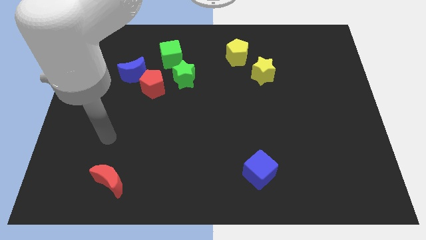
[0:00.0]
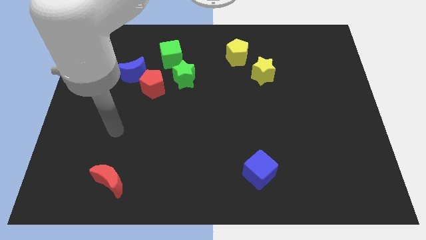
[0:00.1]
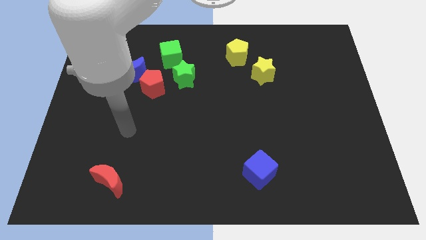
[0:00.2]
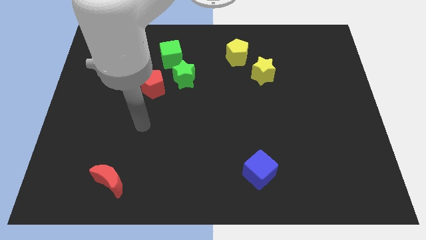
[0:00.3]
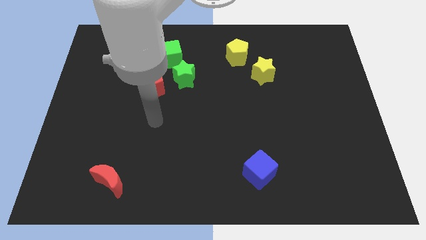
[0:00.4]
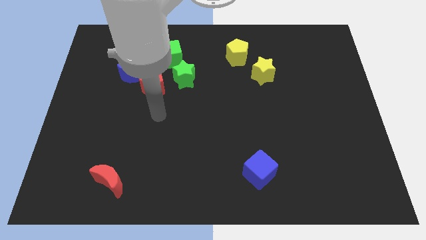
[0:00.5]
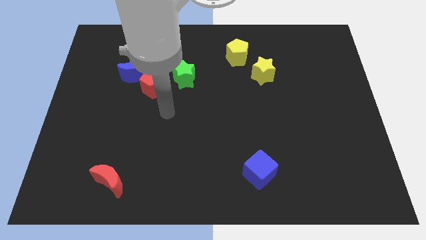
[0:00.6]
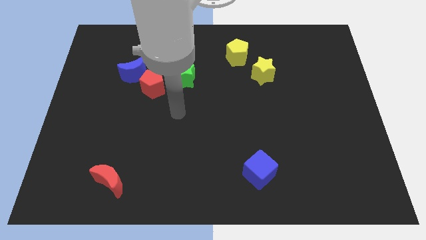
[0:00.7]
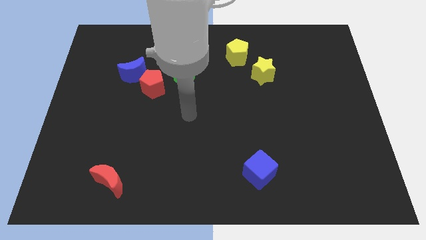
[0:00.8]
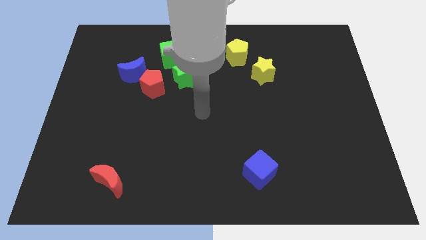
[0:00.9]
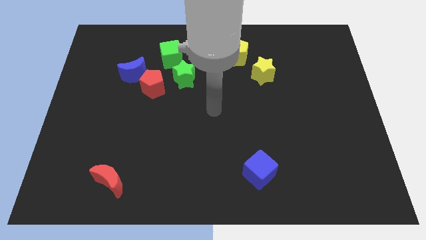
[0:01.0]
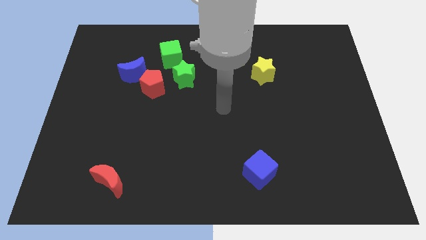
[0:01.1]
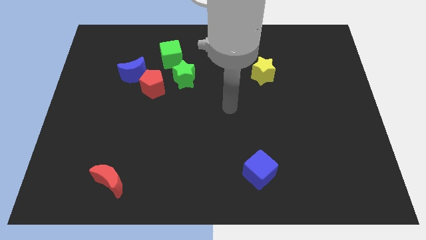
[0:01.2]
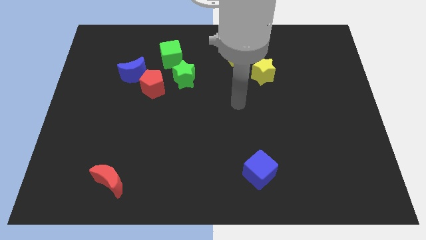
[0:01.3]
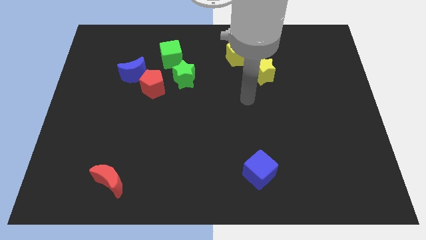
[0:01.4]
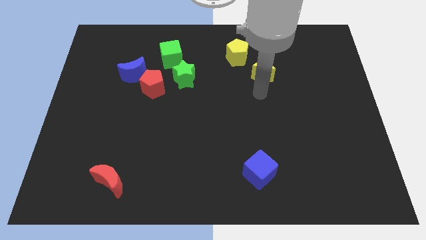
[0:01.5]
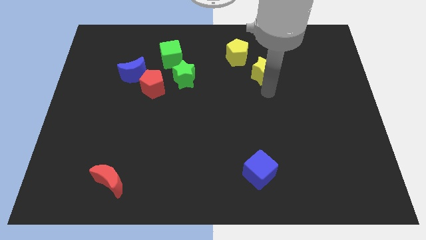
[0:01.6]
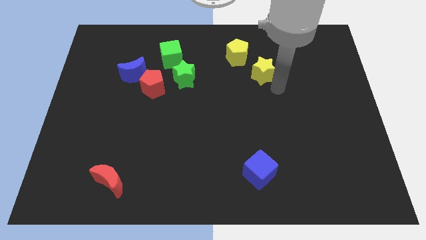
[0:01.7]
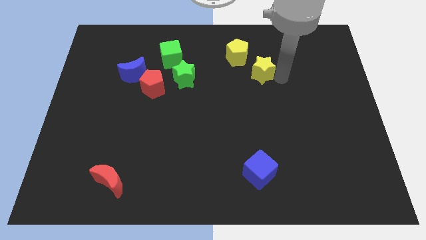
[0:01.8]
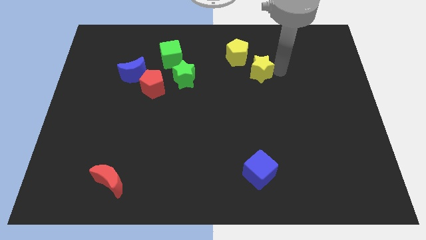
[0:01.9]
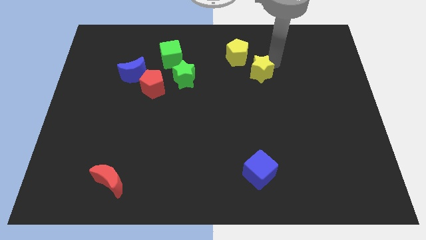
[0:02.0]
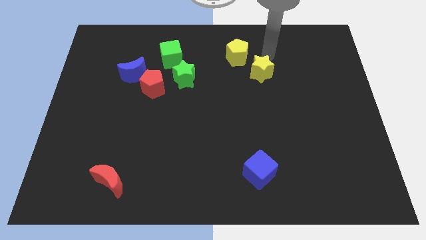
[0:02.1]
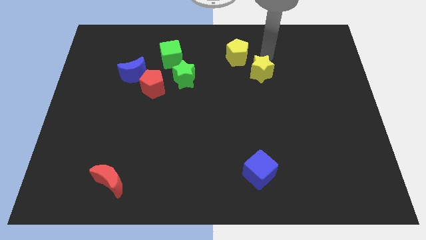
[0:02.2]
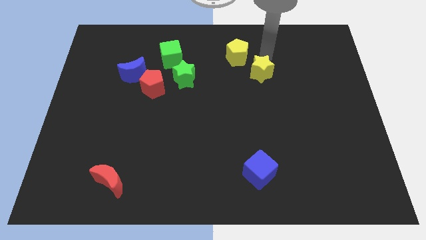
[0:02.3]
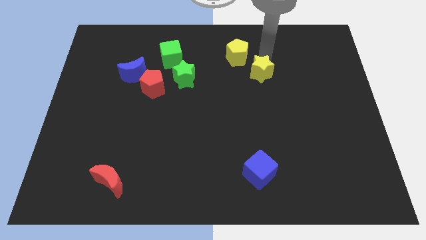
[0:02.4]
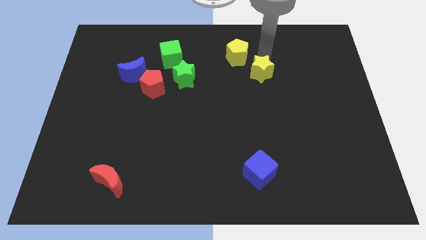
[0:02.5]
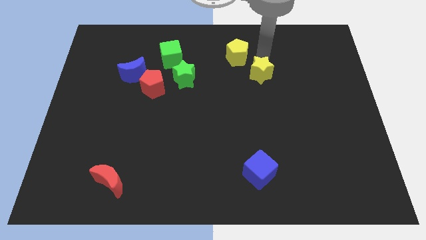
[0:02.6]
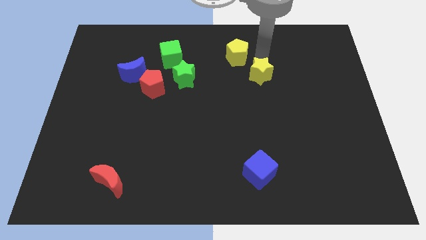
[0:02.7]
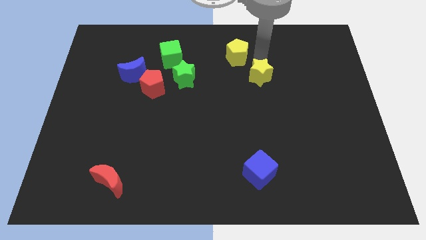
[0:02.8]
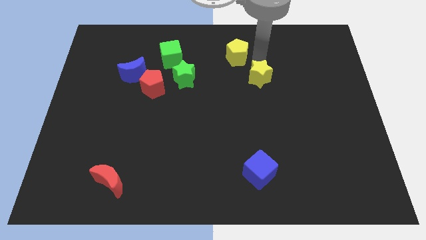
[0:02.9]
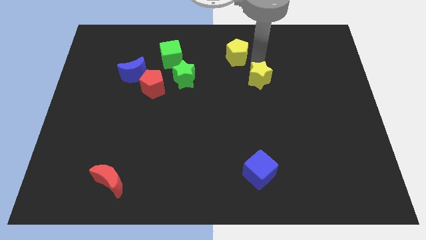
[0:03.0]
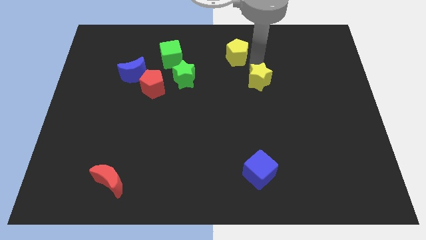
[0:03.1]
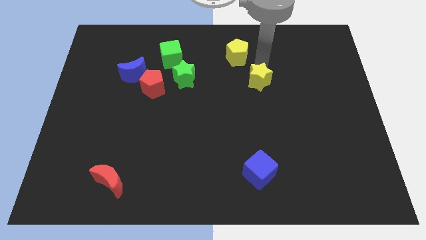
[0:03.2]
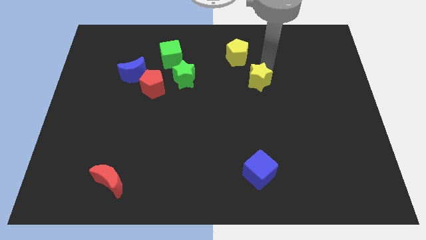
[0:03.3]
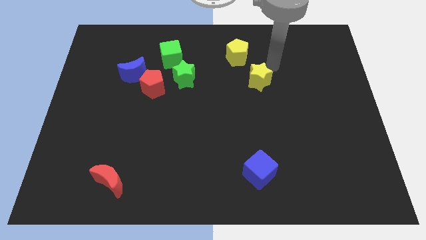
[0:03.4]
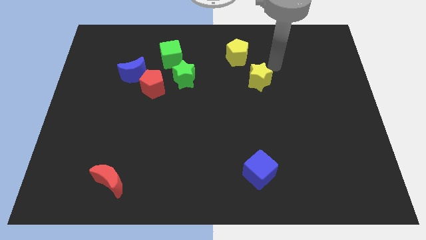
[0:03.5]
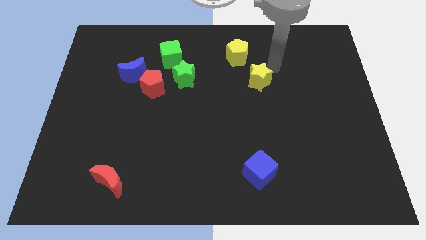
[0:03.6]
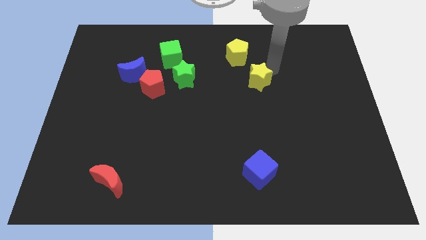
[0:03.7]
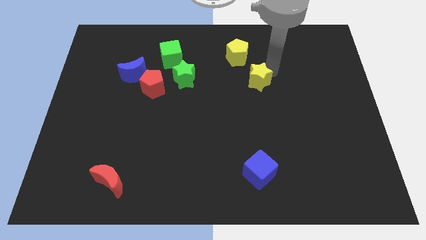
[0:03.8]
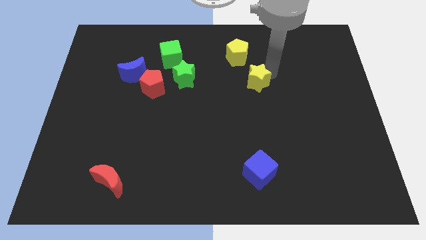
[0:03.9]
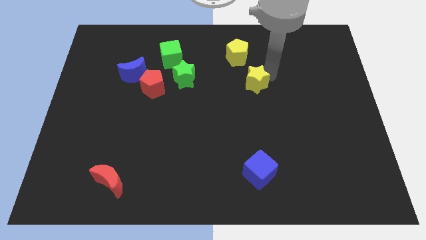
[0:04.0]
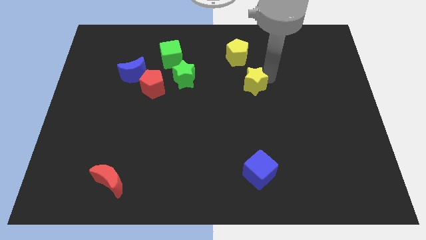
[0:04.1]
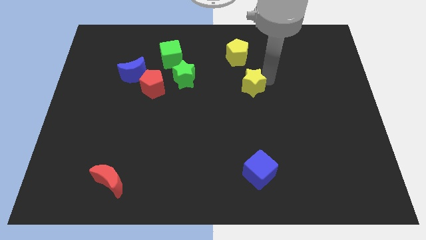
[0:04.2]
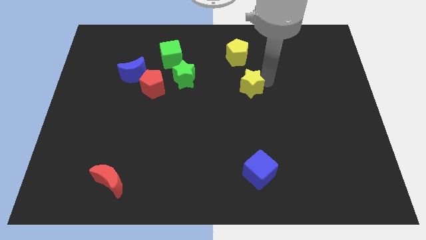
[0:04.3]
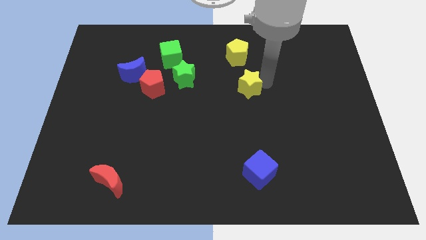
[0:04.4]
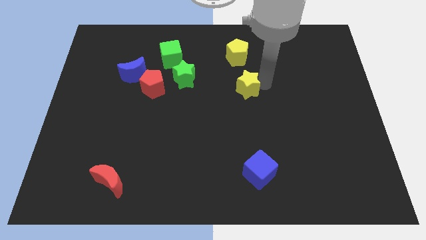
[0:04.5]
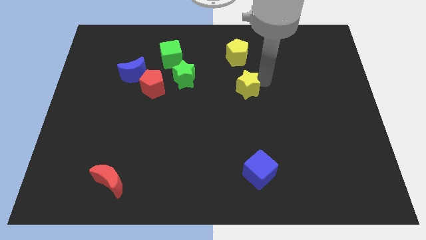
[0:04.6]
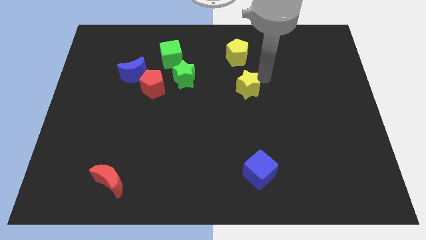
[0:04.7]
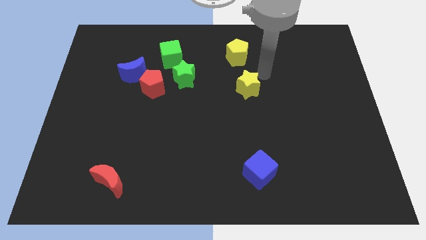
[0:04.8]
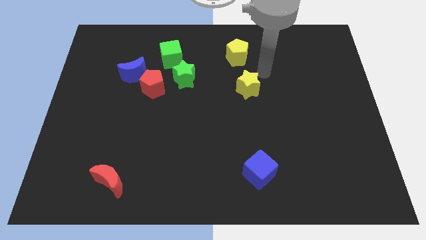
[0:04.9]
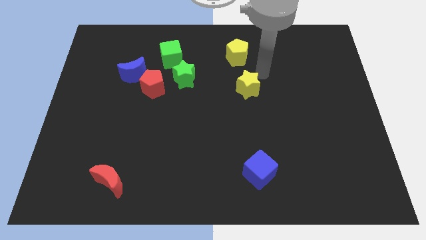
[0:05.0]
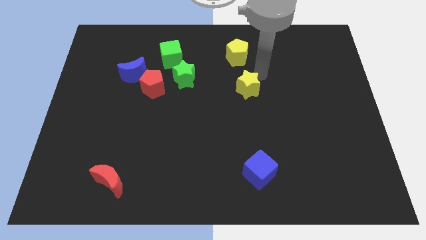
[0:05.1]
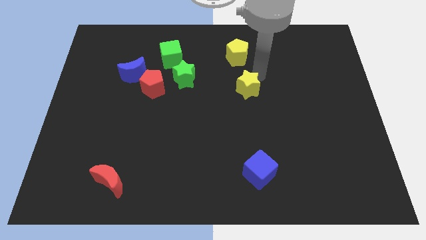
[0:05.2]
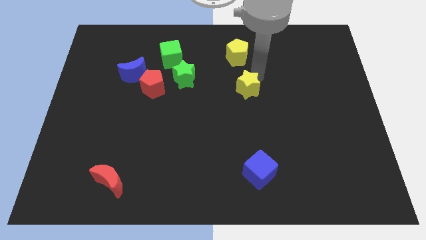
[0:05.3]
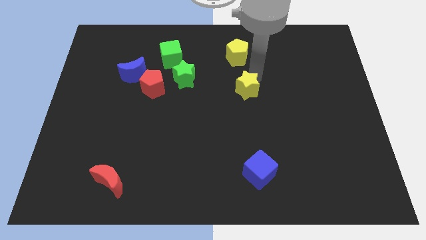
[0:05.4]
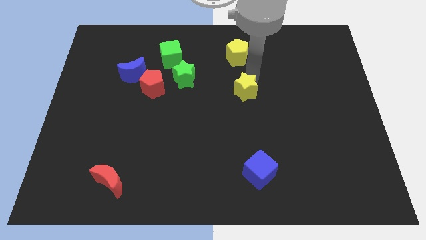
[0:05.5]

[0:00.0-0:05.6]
move the yellow star somewhat down and to the left diagonally

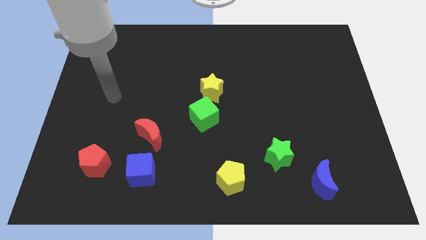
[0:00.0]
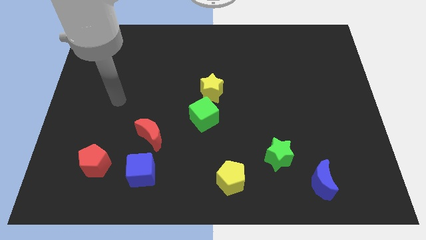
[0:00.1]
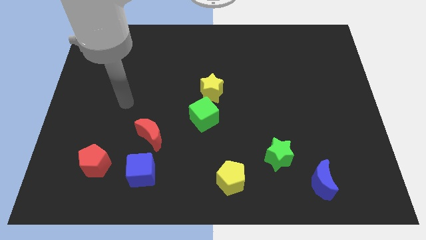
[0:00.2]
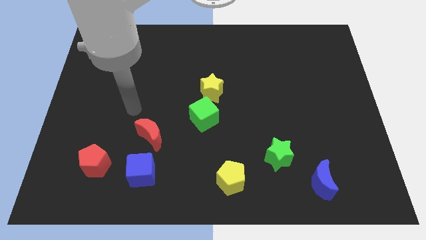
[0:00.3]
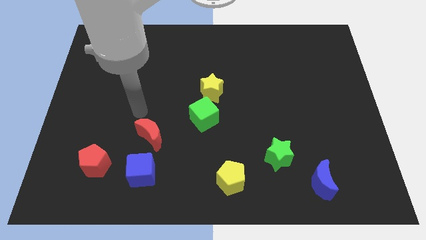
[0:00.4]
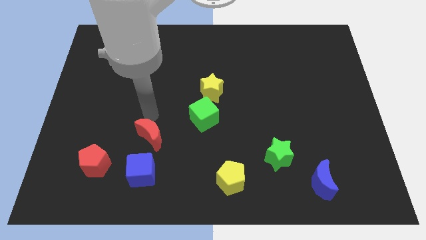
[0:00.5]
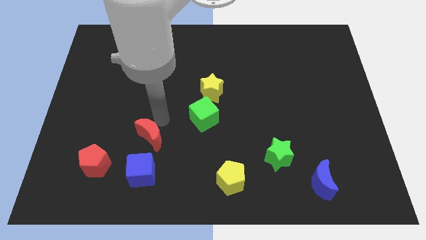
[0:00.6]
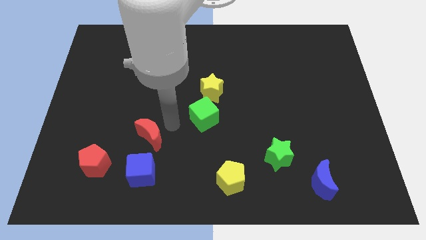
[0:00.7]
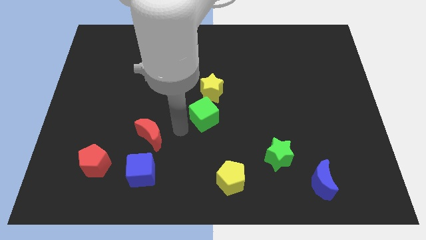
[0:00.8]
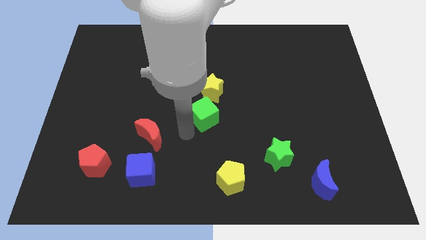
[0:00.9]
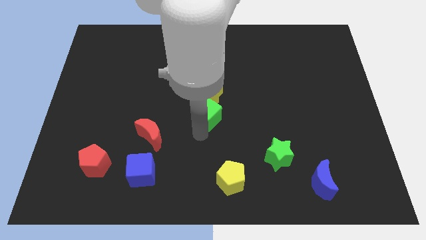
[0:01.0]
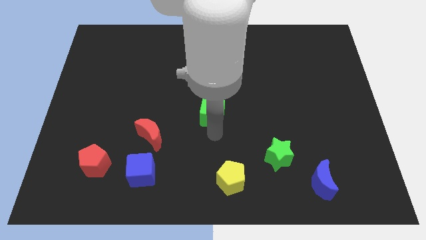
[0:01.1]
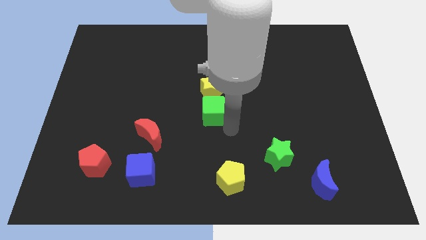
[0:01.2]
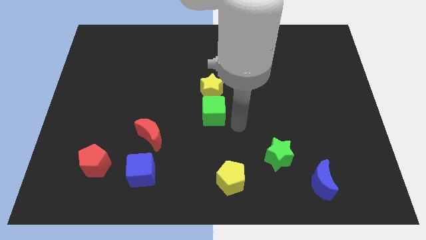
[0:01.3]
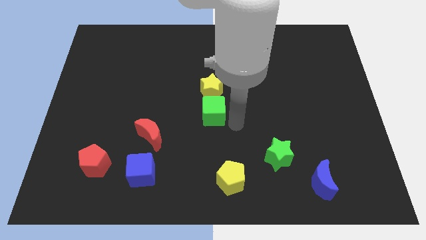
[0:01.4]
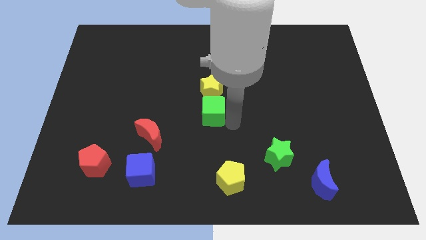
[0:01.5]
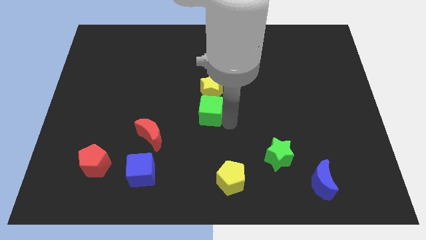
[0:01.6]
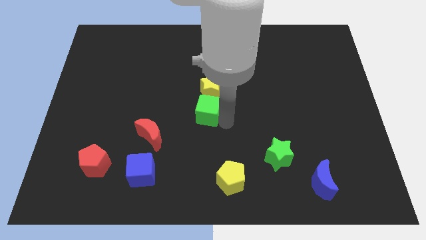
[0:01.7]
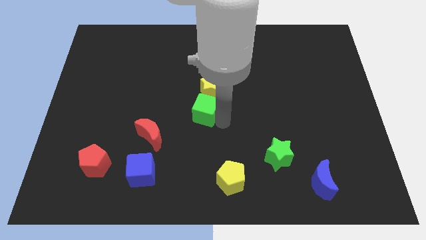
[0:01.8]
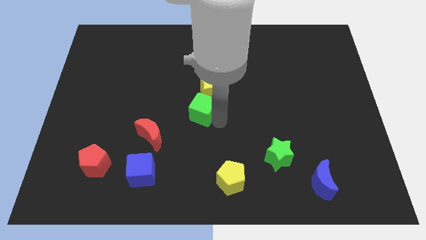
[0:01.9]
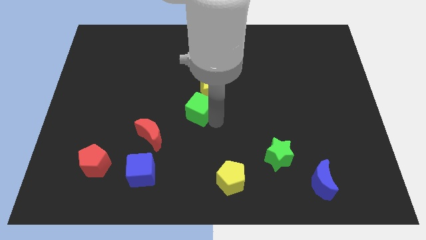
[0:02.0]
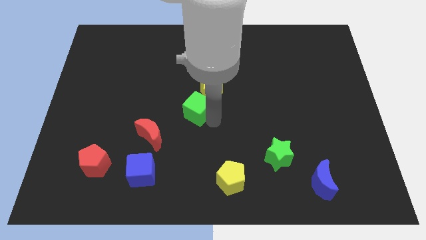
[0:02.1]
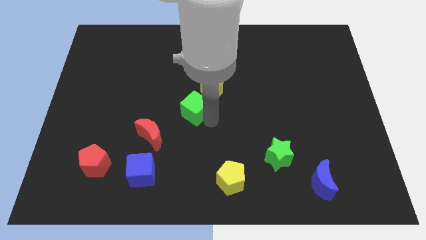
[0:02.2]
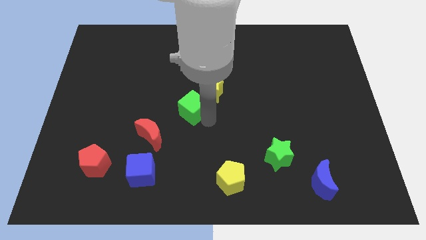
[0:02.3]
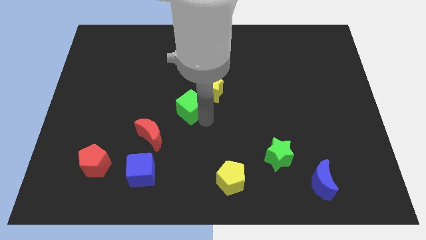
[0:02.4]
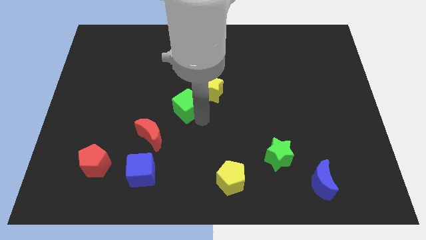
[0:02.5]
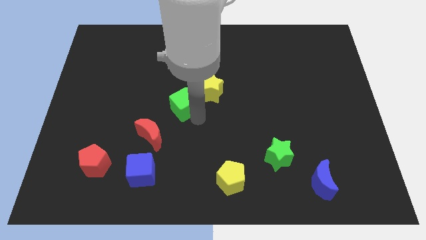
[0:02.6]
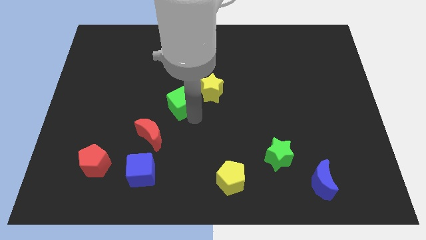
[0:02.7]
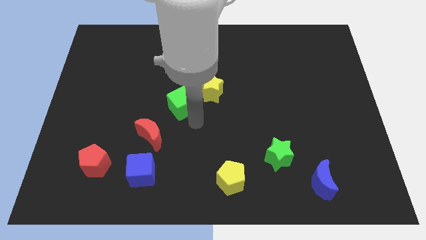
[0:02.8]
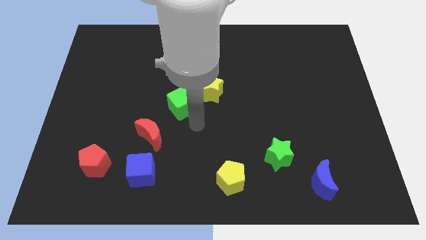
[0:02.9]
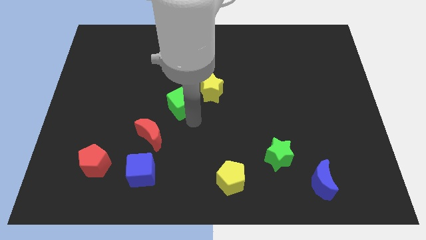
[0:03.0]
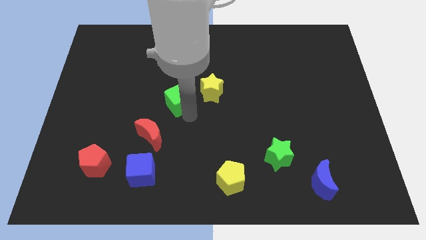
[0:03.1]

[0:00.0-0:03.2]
slide the green cube a bit up and to the left diagonally

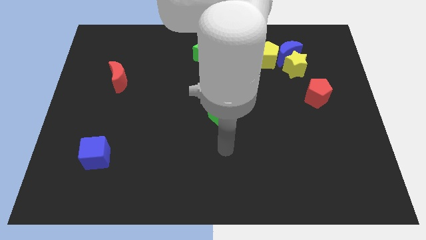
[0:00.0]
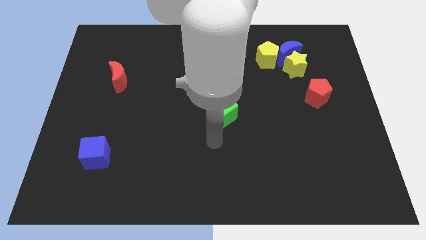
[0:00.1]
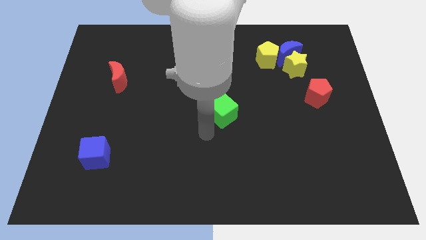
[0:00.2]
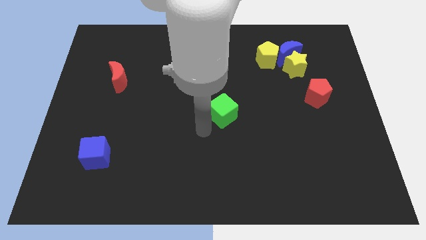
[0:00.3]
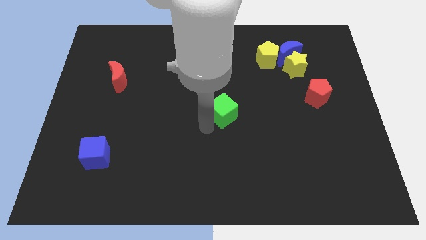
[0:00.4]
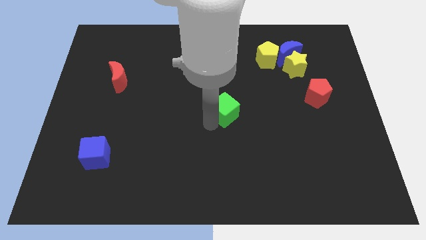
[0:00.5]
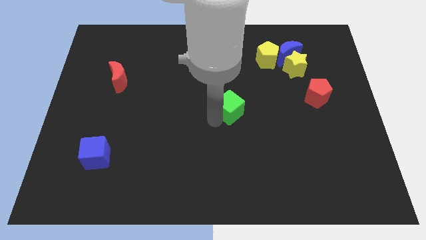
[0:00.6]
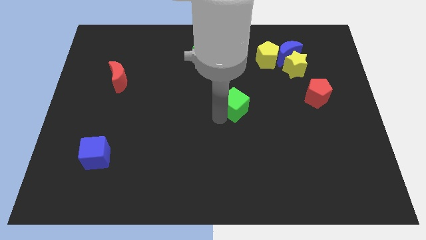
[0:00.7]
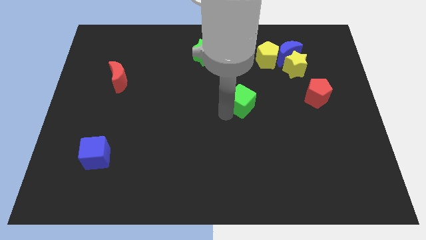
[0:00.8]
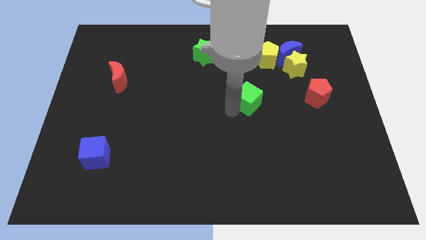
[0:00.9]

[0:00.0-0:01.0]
slide the green cube up and right a little
